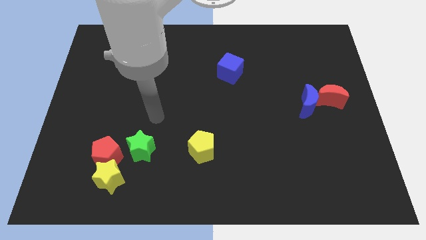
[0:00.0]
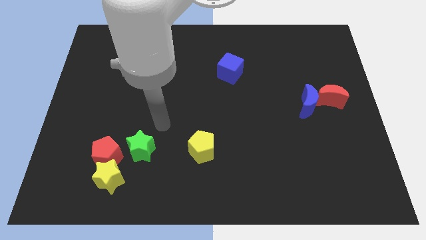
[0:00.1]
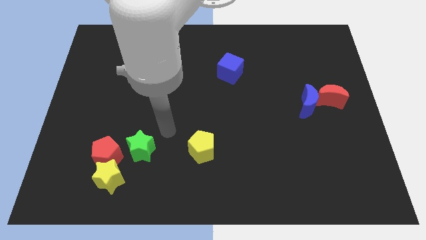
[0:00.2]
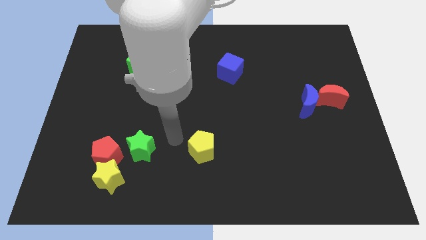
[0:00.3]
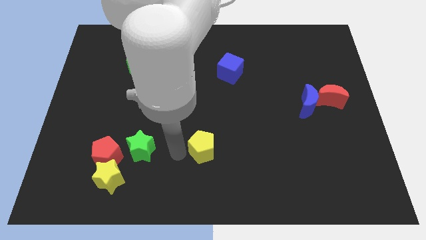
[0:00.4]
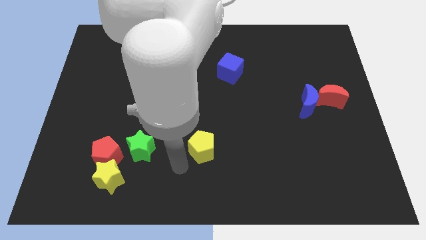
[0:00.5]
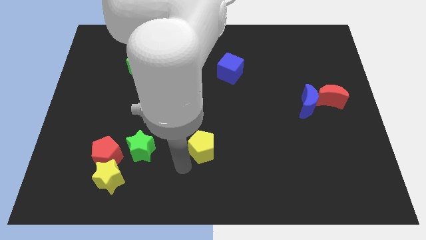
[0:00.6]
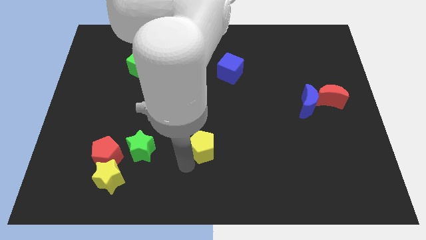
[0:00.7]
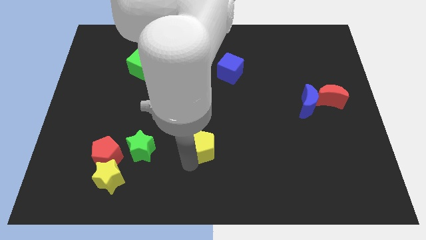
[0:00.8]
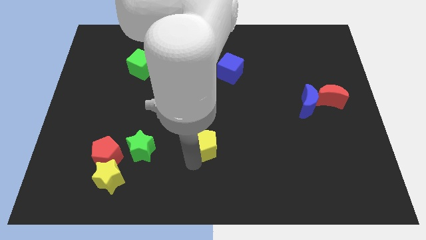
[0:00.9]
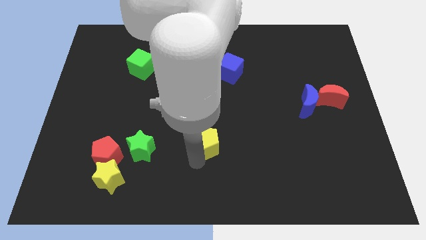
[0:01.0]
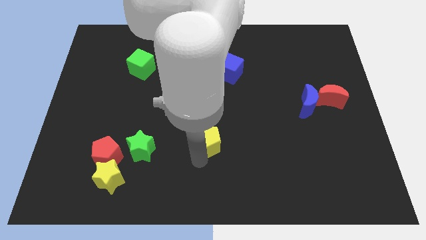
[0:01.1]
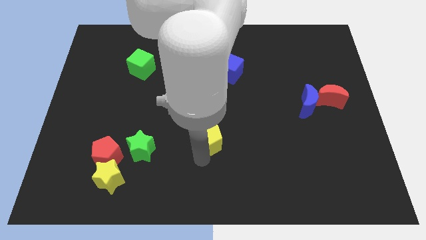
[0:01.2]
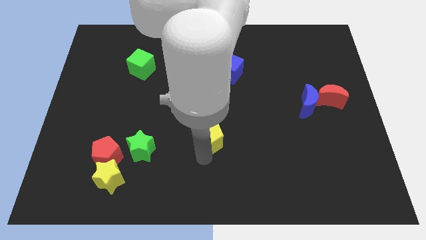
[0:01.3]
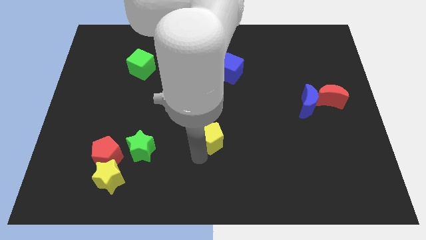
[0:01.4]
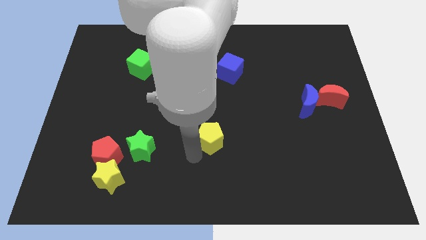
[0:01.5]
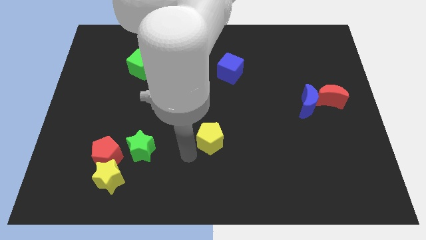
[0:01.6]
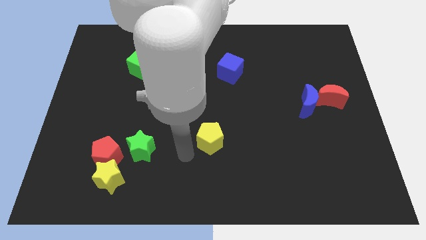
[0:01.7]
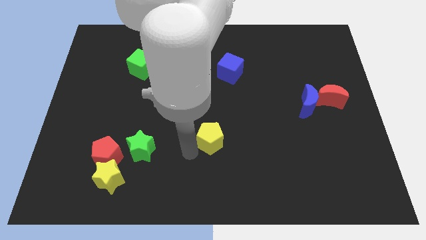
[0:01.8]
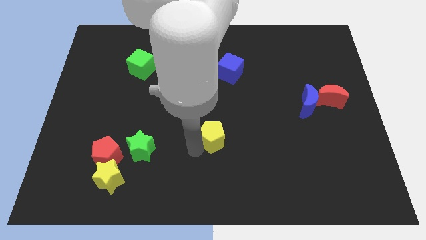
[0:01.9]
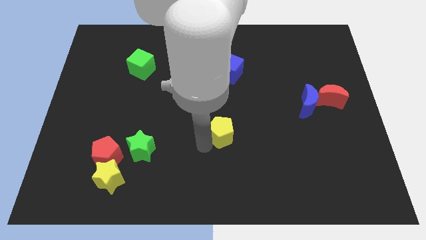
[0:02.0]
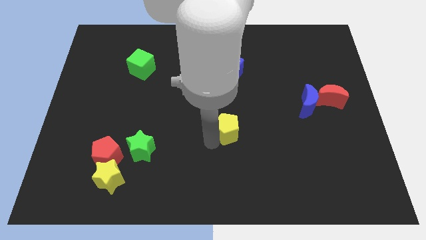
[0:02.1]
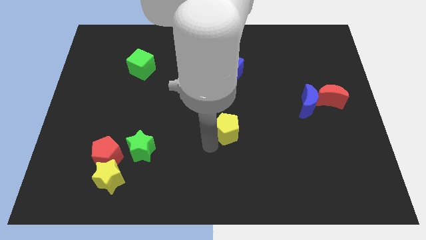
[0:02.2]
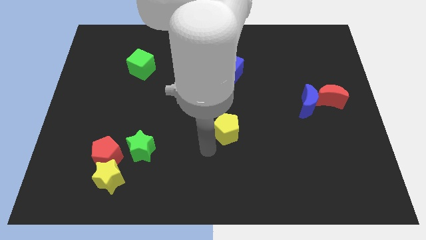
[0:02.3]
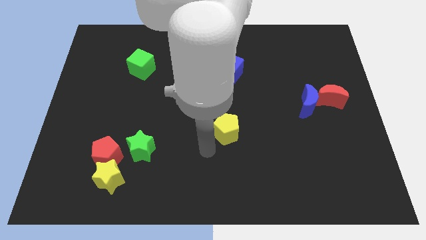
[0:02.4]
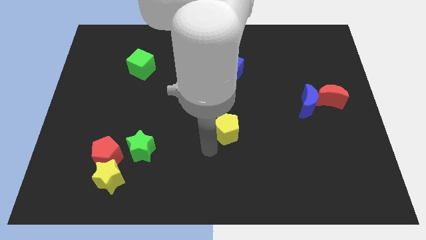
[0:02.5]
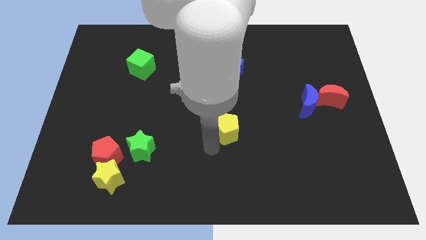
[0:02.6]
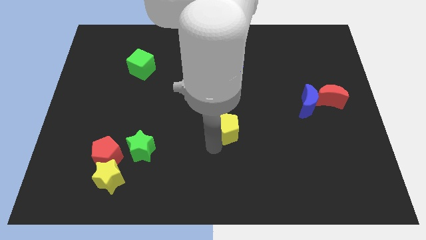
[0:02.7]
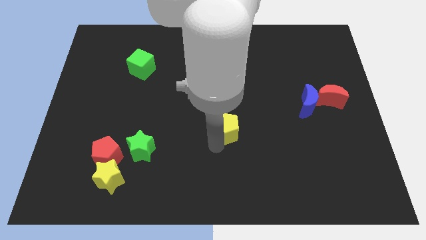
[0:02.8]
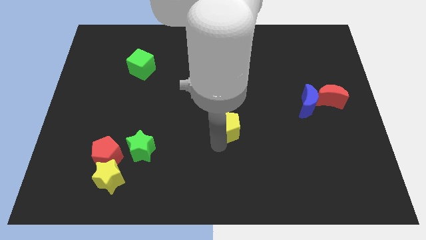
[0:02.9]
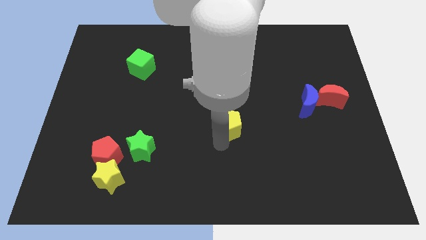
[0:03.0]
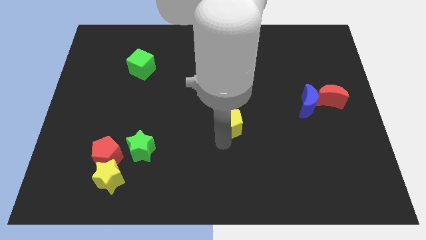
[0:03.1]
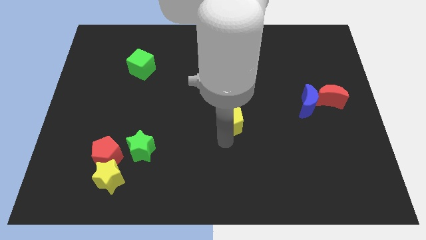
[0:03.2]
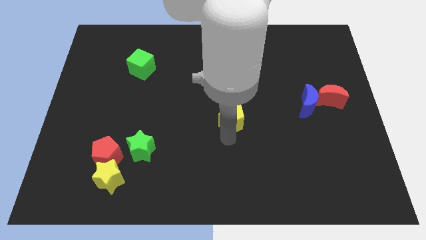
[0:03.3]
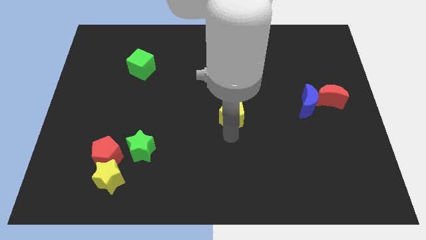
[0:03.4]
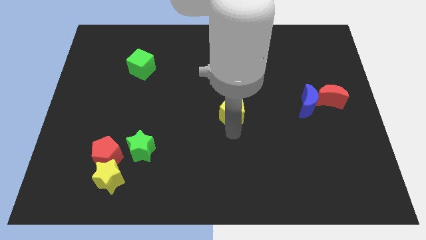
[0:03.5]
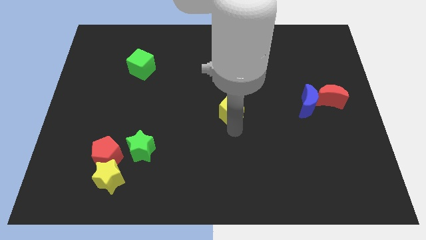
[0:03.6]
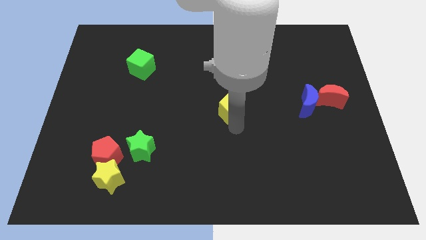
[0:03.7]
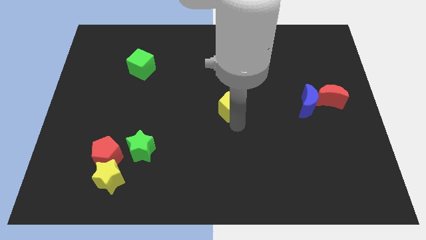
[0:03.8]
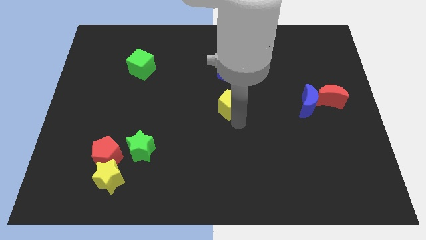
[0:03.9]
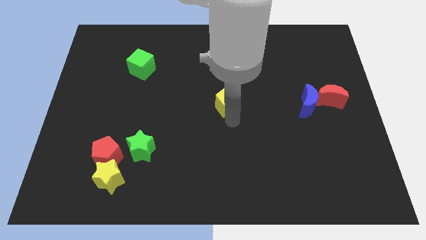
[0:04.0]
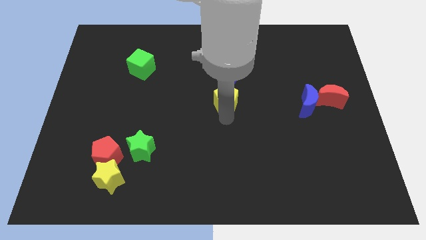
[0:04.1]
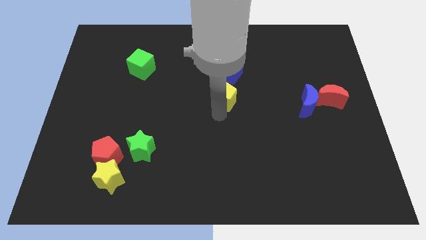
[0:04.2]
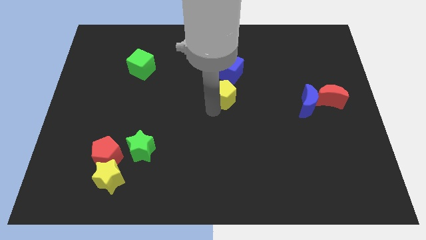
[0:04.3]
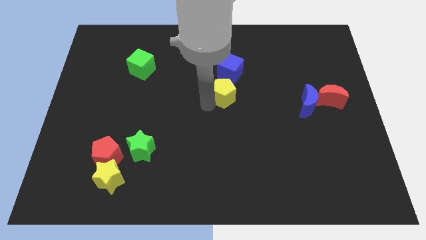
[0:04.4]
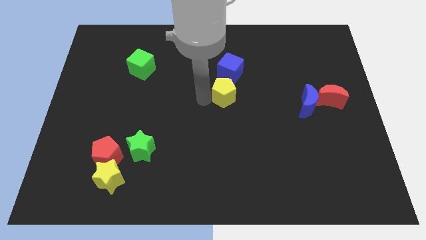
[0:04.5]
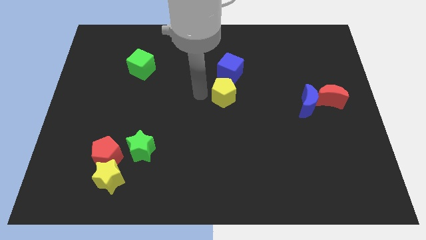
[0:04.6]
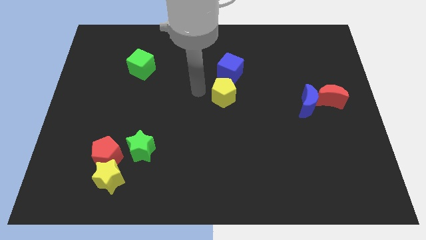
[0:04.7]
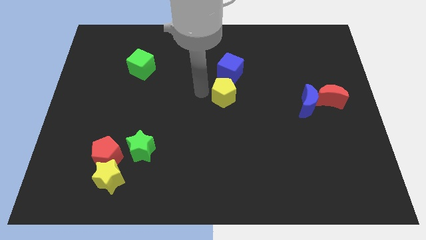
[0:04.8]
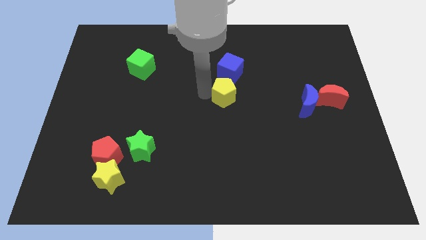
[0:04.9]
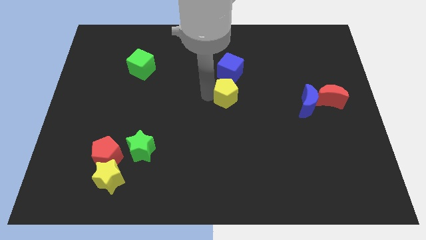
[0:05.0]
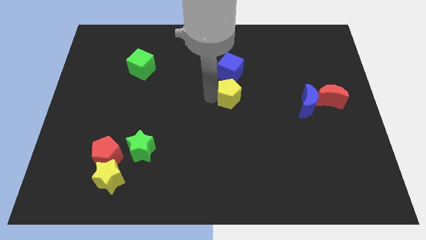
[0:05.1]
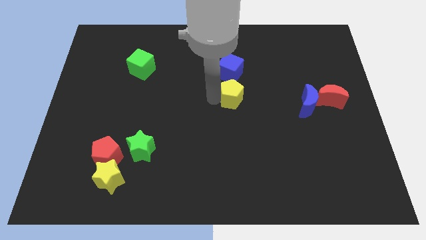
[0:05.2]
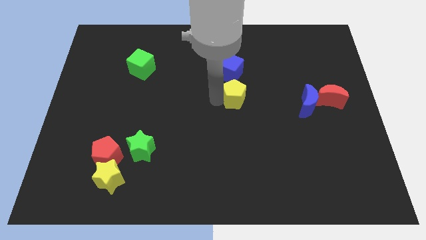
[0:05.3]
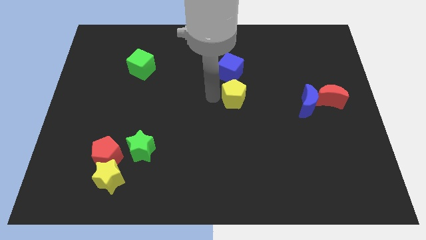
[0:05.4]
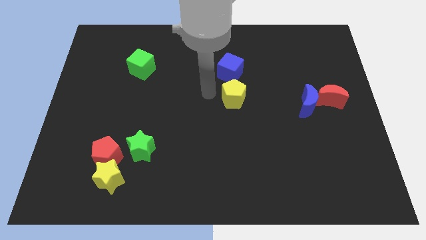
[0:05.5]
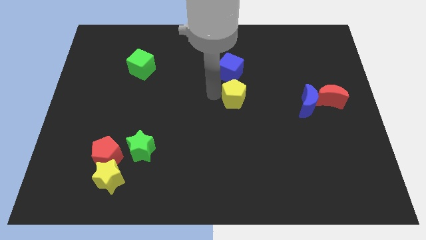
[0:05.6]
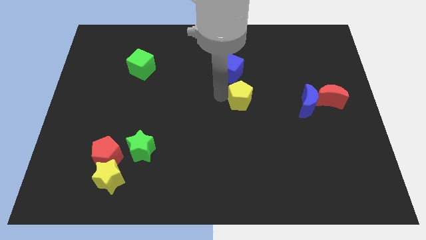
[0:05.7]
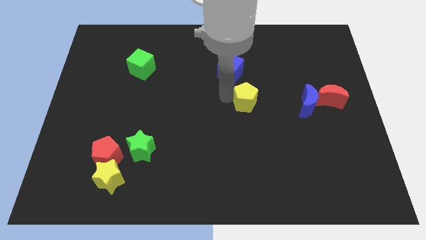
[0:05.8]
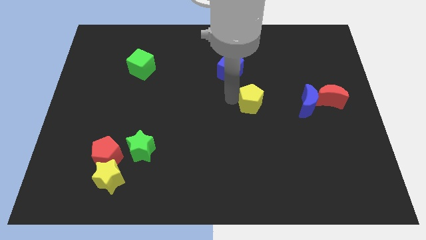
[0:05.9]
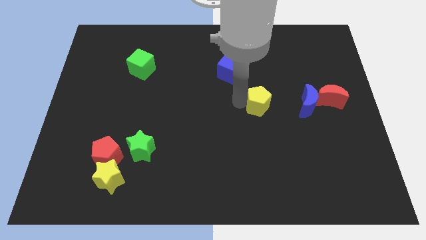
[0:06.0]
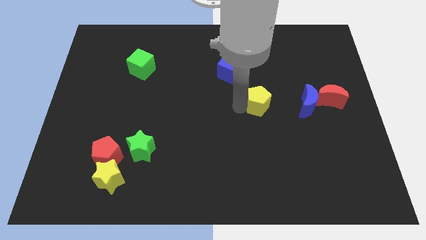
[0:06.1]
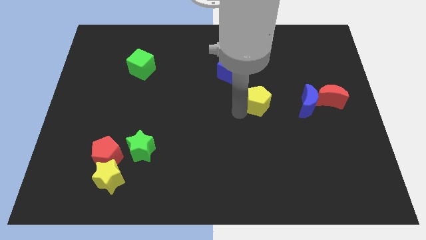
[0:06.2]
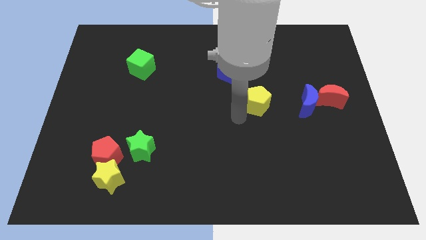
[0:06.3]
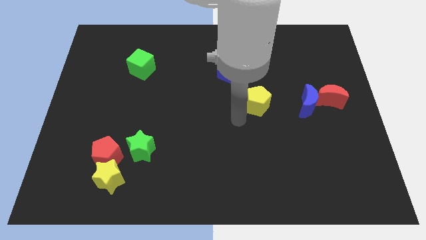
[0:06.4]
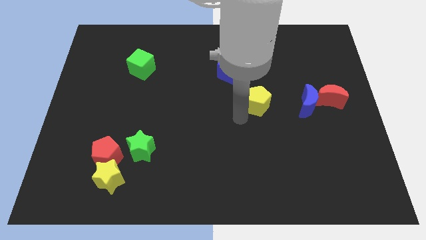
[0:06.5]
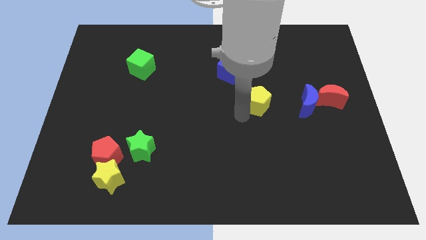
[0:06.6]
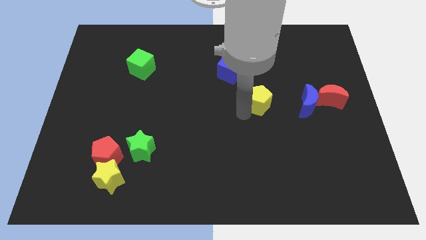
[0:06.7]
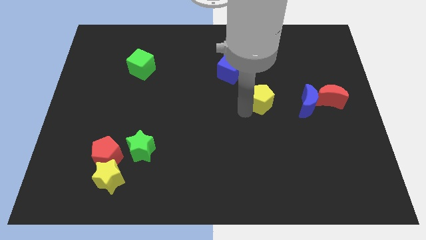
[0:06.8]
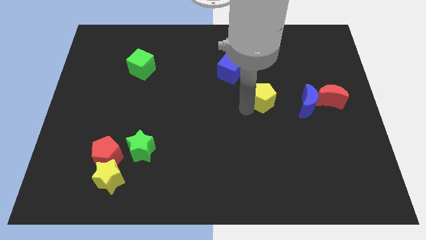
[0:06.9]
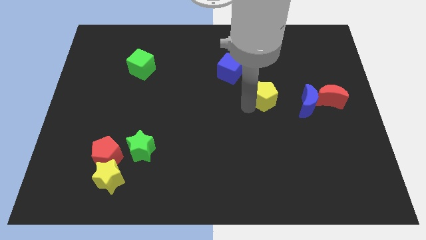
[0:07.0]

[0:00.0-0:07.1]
slide the yellow pentagon up and right

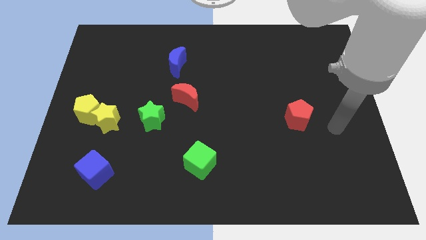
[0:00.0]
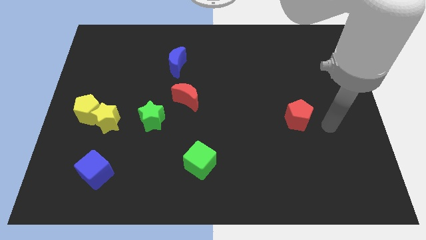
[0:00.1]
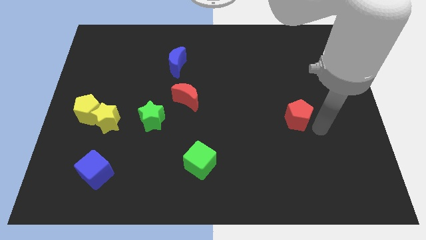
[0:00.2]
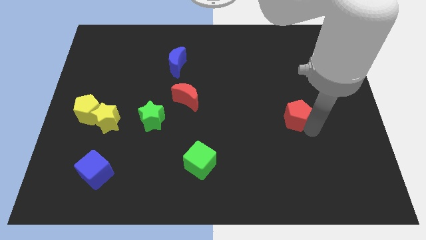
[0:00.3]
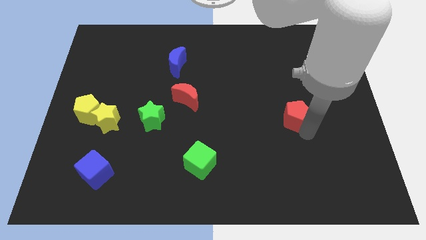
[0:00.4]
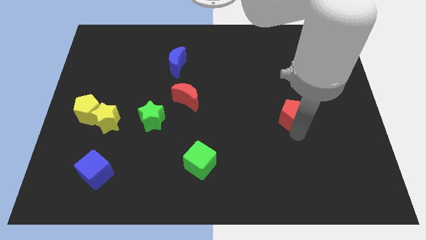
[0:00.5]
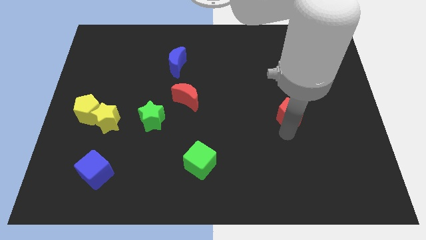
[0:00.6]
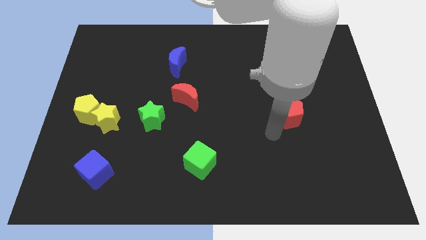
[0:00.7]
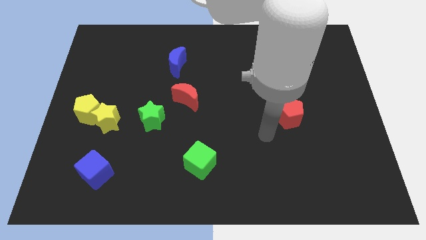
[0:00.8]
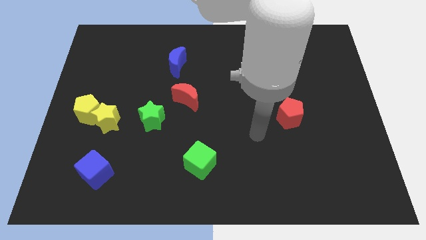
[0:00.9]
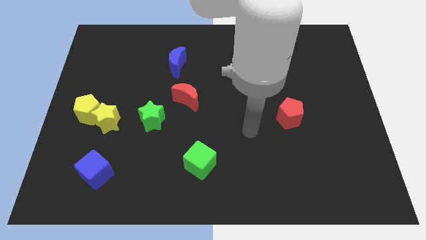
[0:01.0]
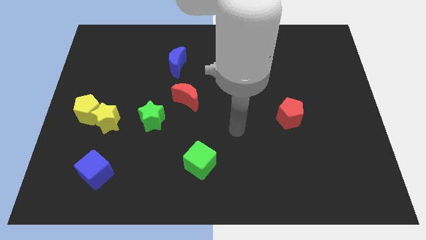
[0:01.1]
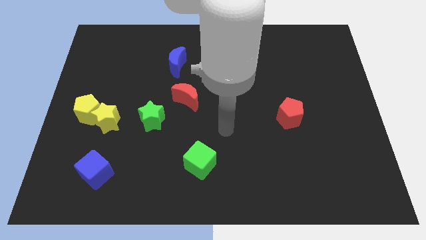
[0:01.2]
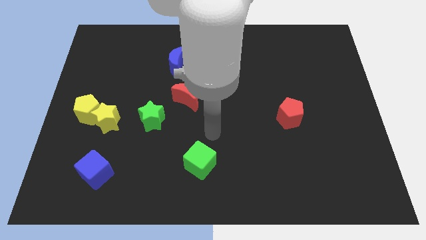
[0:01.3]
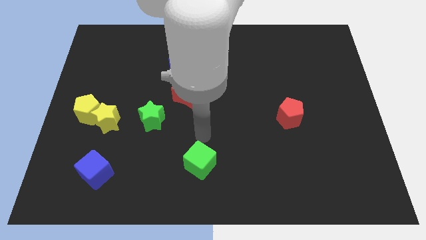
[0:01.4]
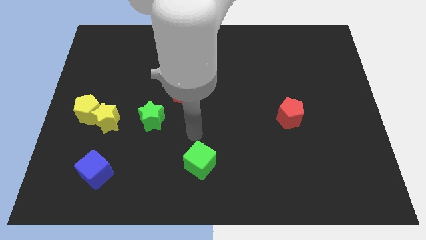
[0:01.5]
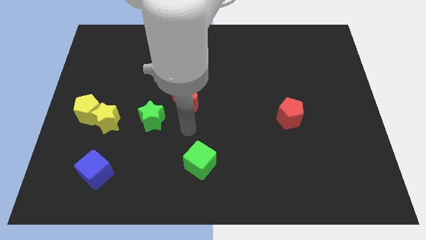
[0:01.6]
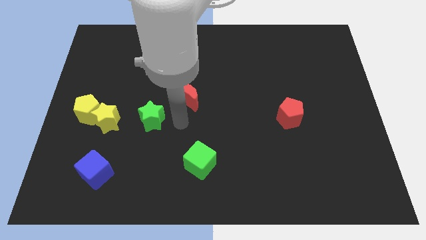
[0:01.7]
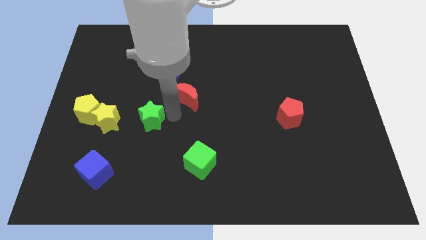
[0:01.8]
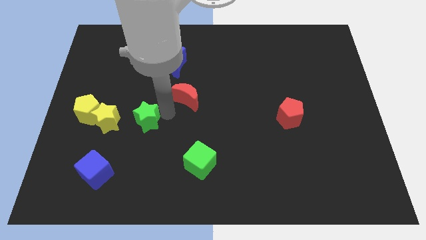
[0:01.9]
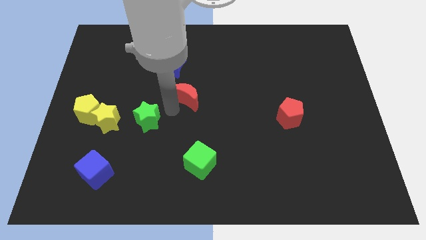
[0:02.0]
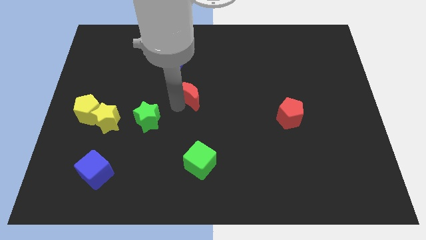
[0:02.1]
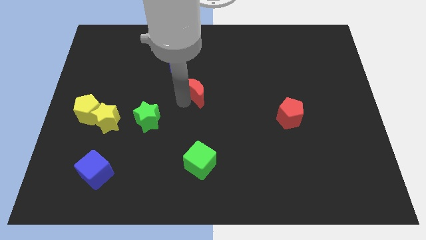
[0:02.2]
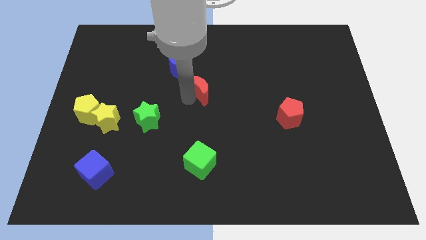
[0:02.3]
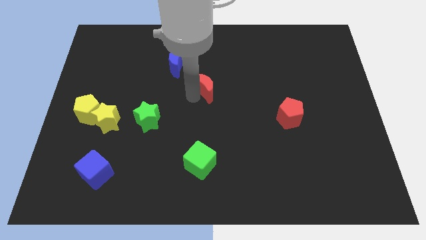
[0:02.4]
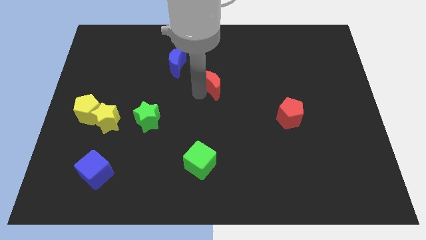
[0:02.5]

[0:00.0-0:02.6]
slightly move the red moon diagonally upwards and right
